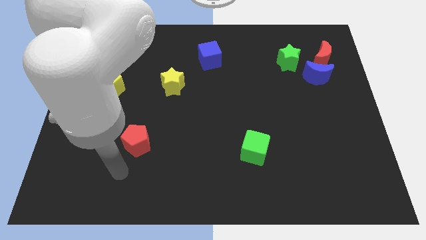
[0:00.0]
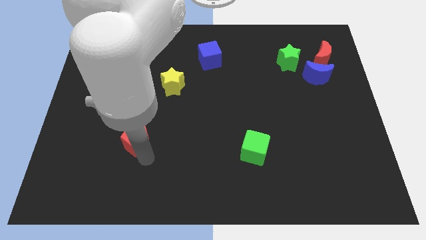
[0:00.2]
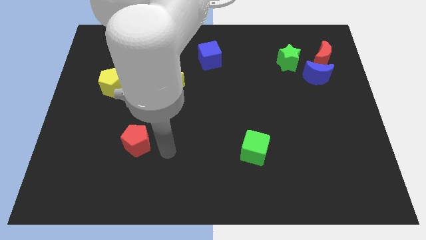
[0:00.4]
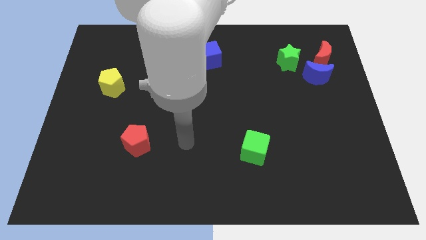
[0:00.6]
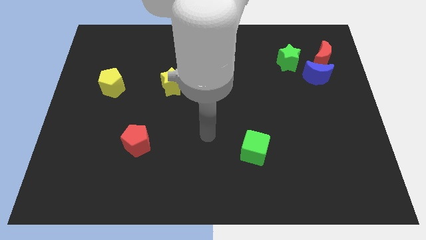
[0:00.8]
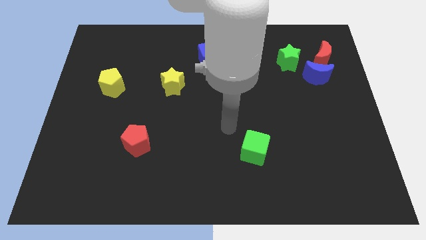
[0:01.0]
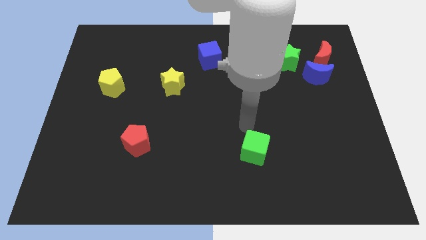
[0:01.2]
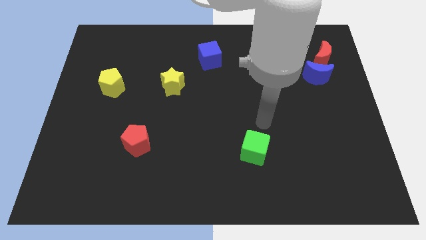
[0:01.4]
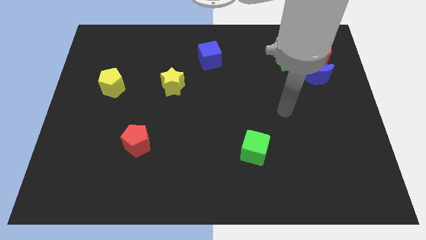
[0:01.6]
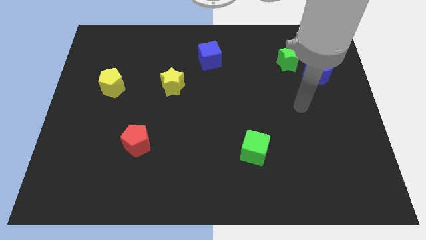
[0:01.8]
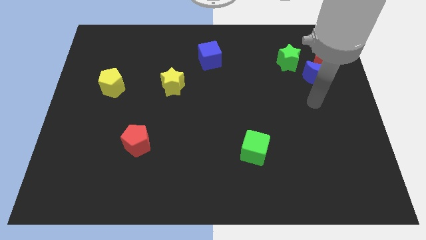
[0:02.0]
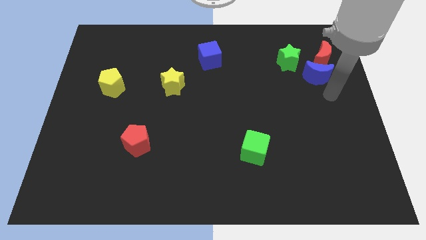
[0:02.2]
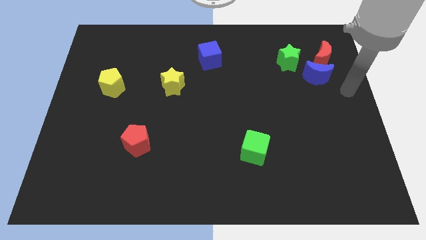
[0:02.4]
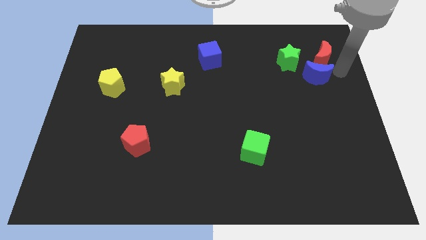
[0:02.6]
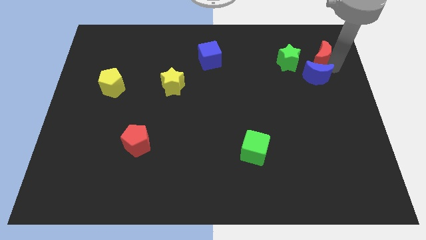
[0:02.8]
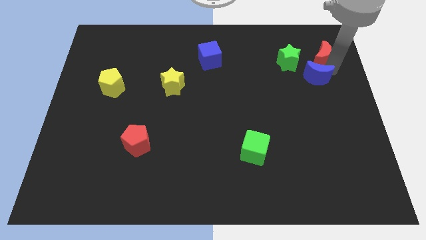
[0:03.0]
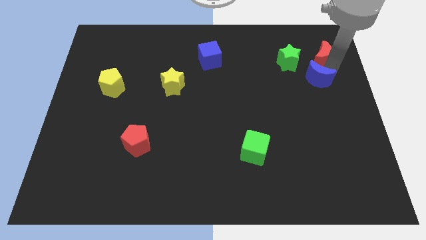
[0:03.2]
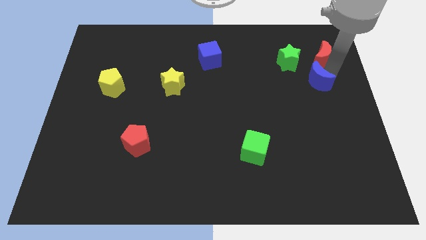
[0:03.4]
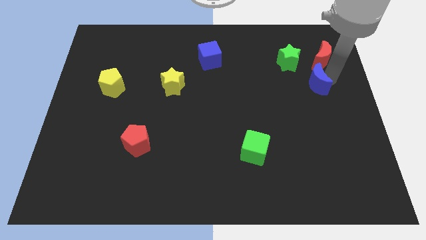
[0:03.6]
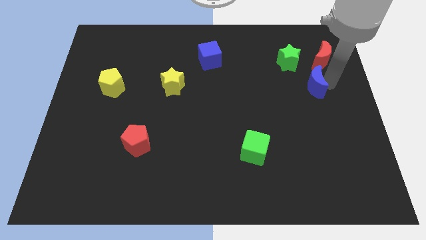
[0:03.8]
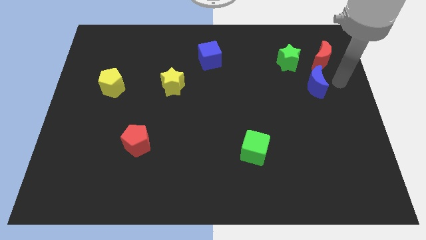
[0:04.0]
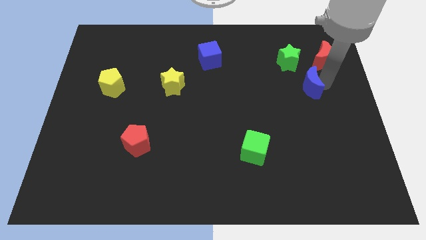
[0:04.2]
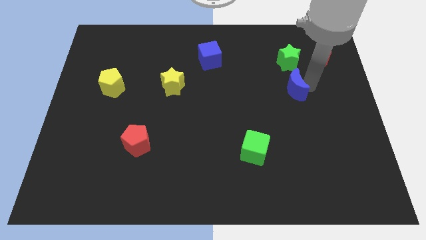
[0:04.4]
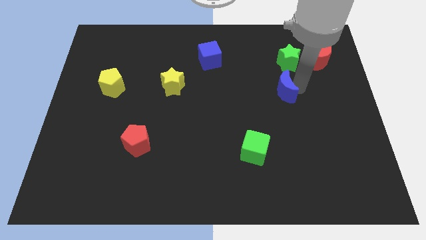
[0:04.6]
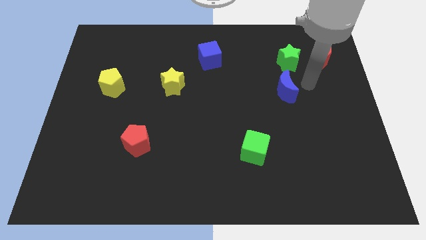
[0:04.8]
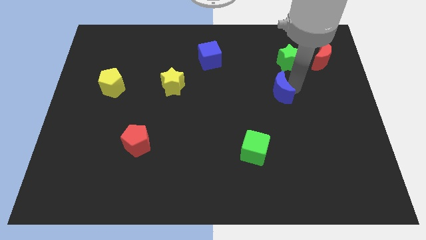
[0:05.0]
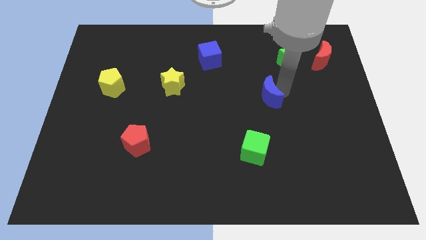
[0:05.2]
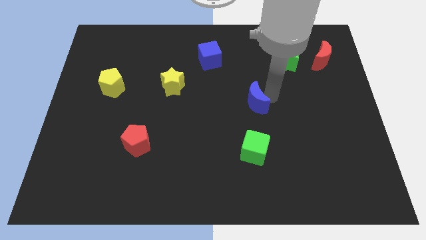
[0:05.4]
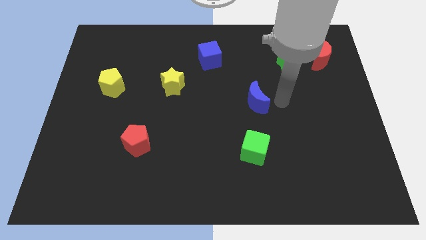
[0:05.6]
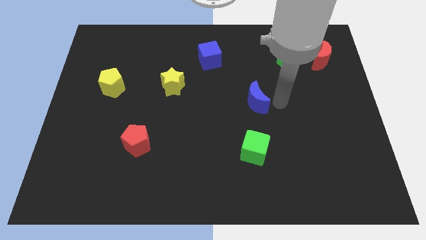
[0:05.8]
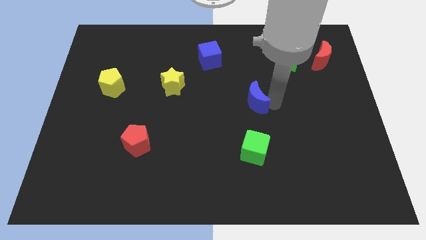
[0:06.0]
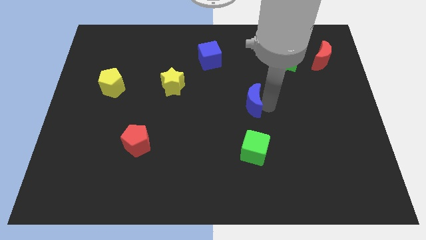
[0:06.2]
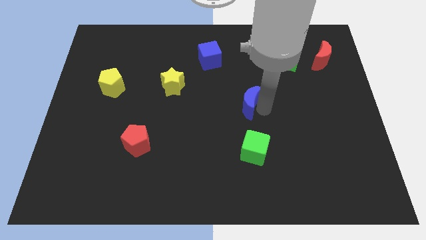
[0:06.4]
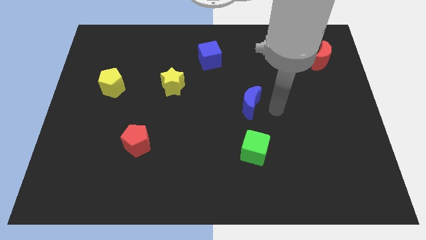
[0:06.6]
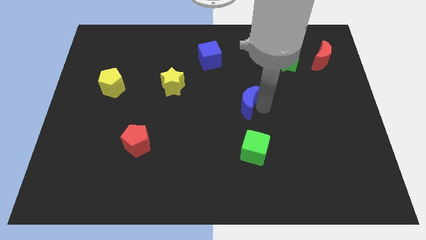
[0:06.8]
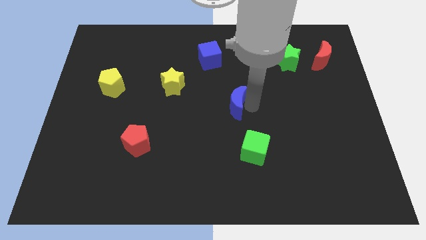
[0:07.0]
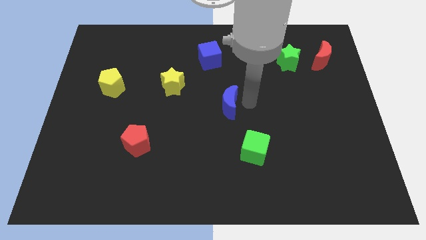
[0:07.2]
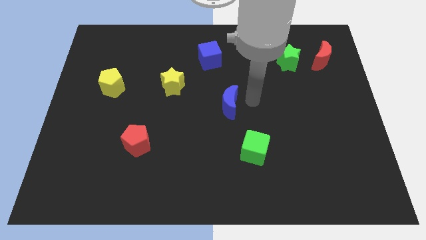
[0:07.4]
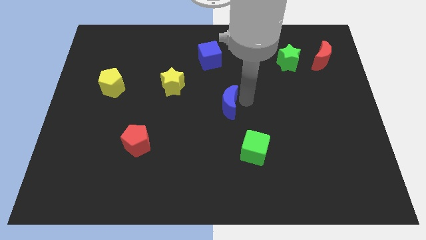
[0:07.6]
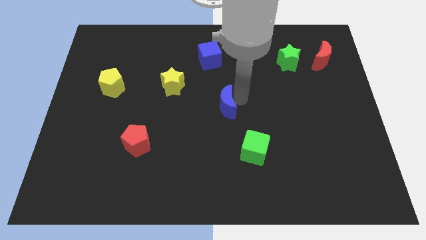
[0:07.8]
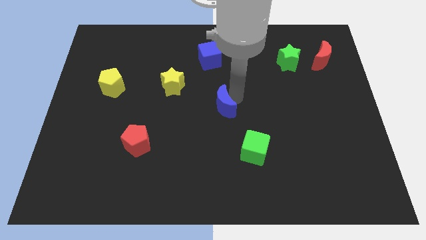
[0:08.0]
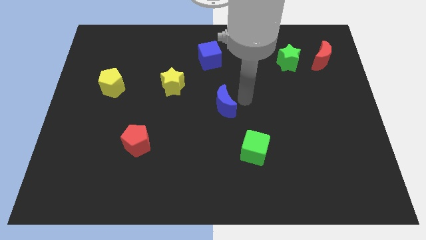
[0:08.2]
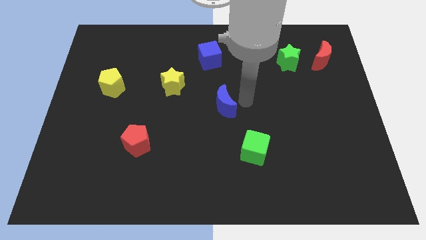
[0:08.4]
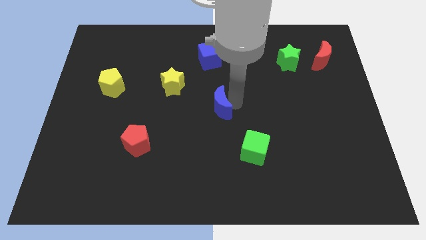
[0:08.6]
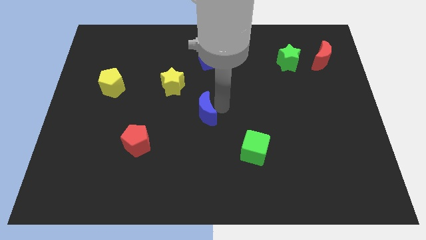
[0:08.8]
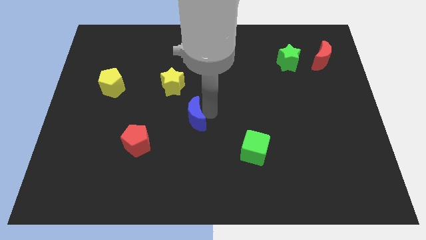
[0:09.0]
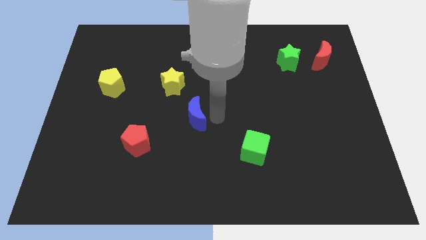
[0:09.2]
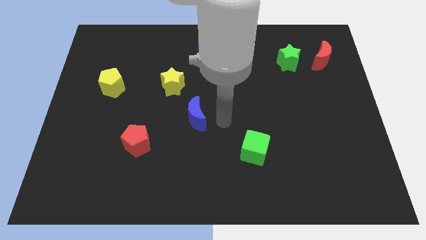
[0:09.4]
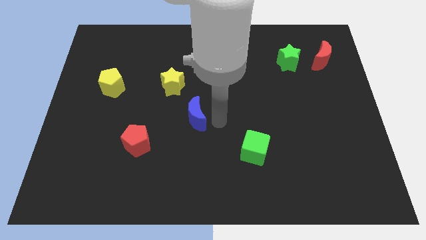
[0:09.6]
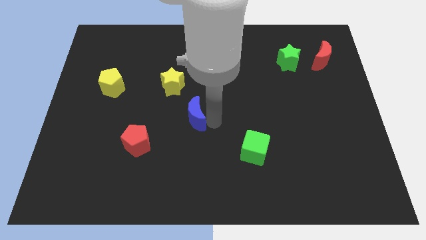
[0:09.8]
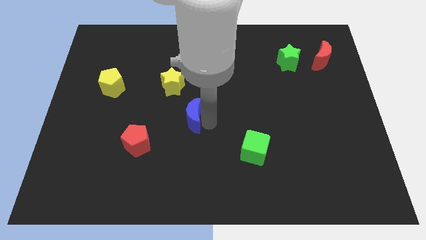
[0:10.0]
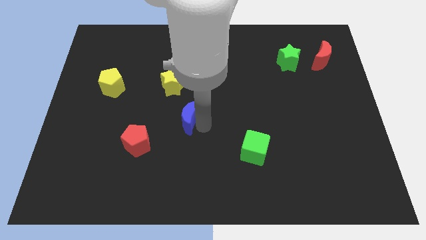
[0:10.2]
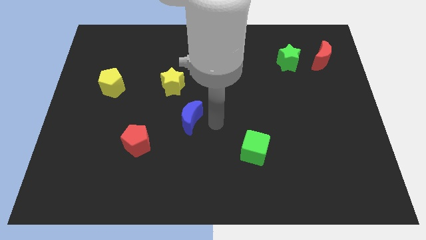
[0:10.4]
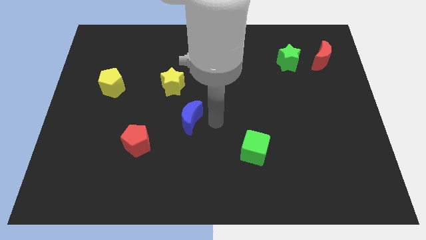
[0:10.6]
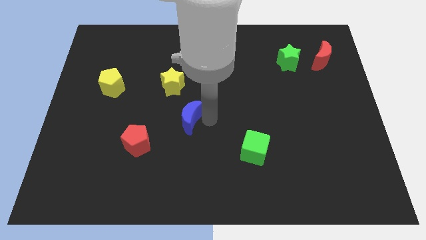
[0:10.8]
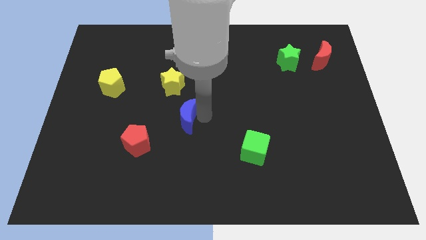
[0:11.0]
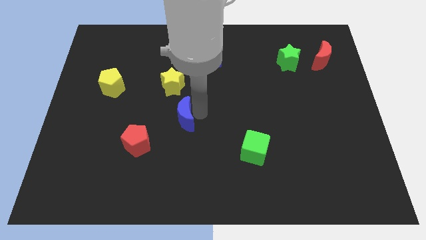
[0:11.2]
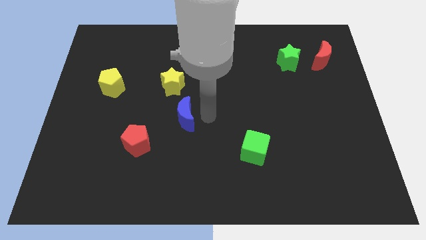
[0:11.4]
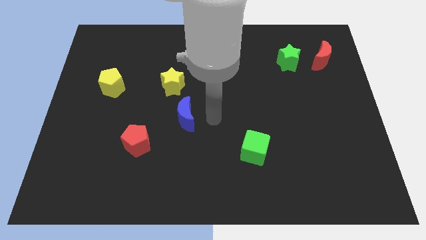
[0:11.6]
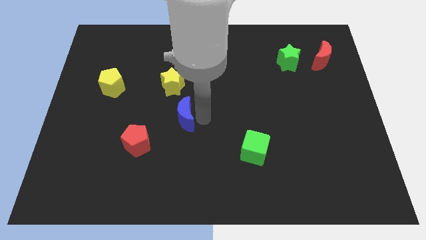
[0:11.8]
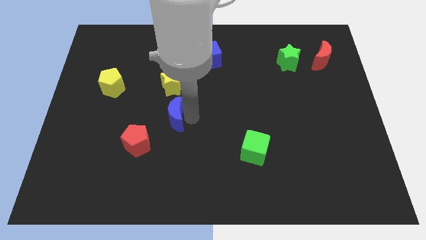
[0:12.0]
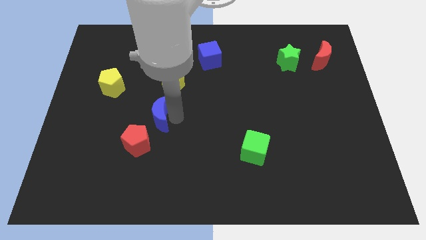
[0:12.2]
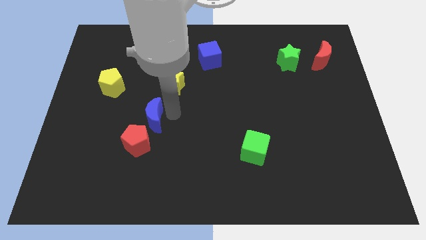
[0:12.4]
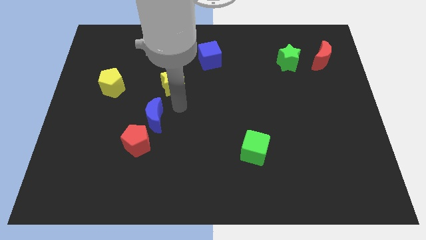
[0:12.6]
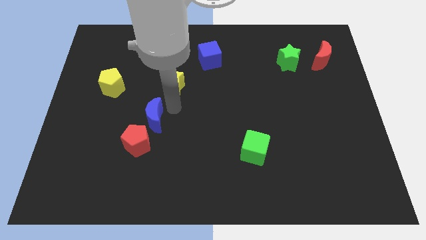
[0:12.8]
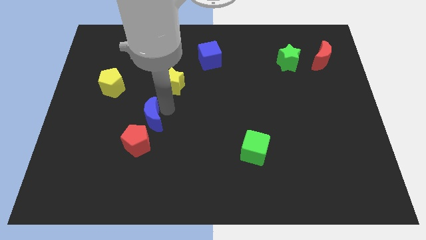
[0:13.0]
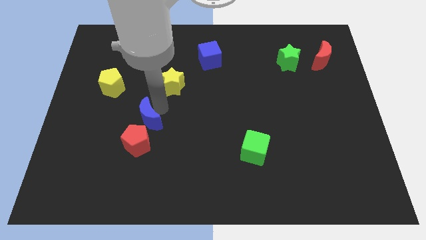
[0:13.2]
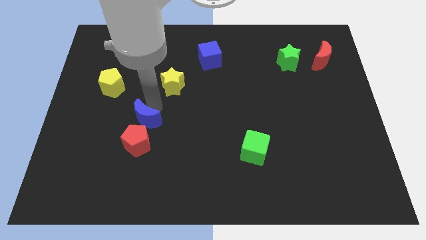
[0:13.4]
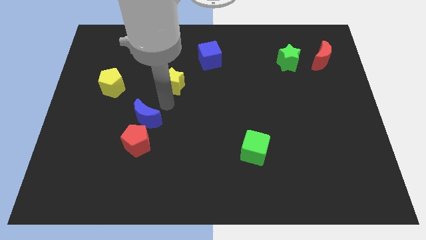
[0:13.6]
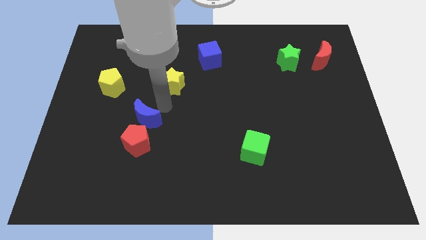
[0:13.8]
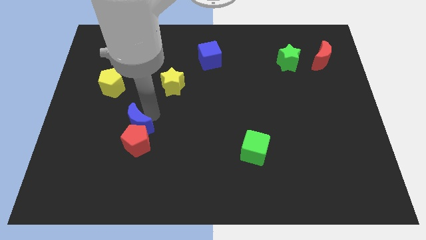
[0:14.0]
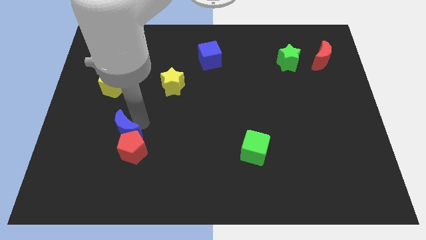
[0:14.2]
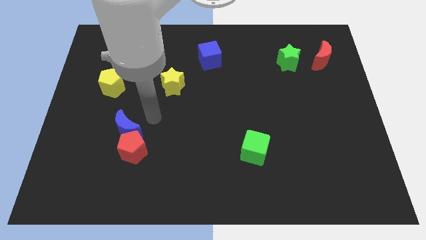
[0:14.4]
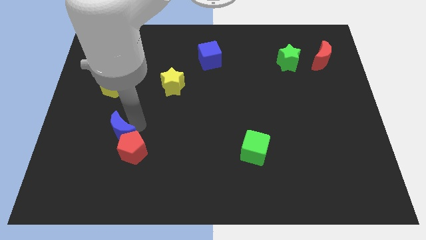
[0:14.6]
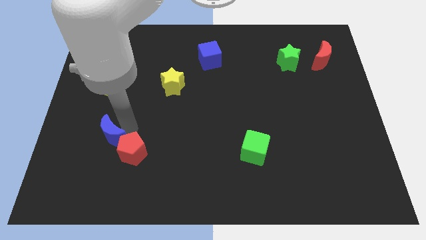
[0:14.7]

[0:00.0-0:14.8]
put the blue moon to the left side of the red pentagon
